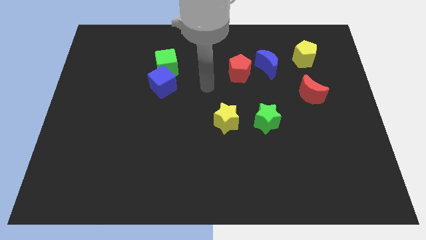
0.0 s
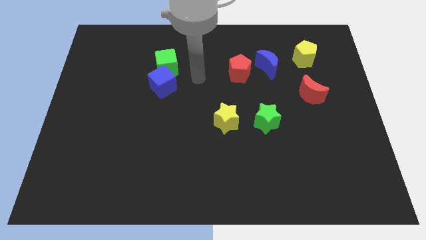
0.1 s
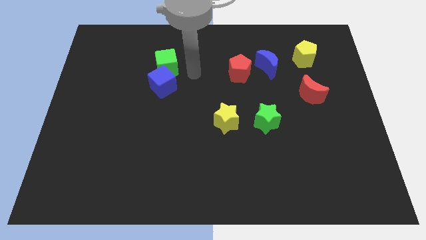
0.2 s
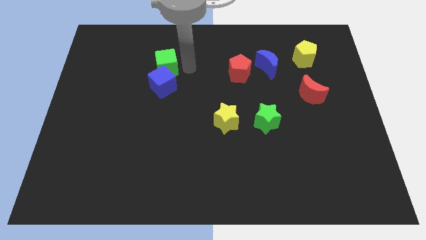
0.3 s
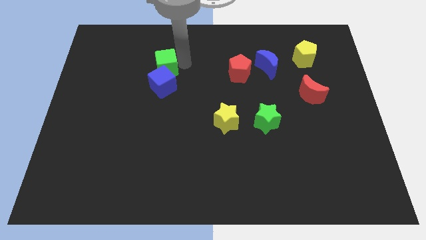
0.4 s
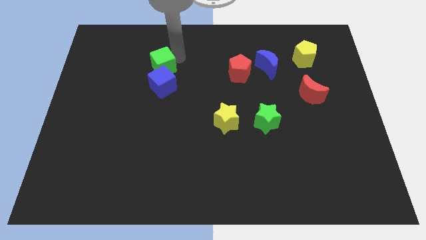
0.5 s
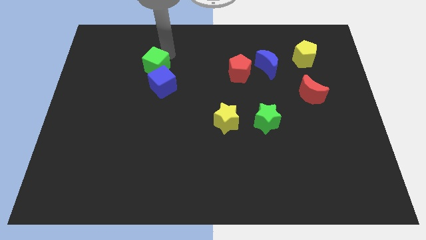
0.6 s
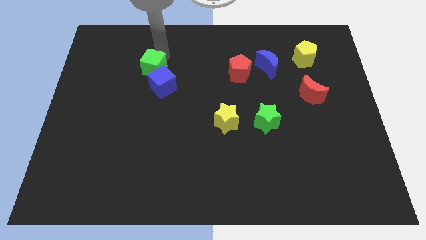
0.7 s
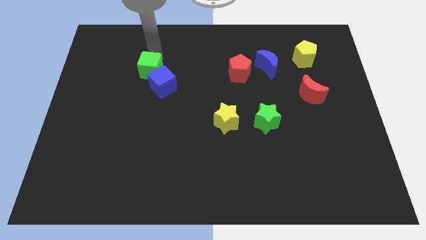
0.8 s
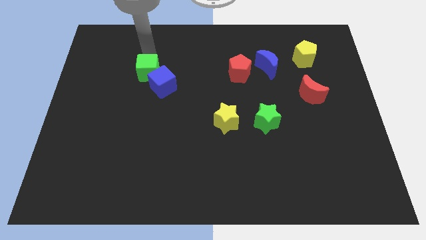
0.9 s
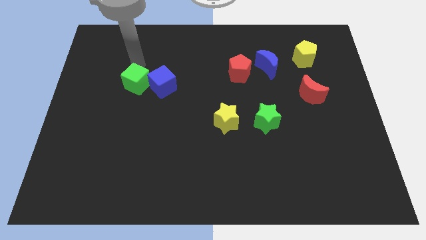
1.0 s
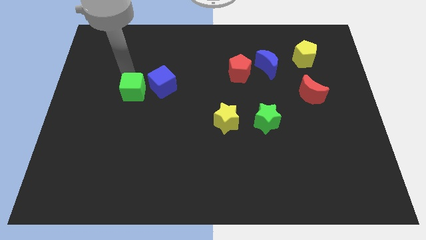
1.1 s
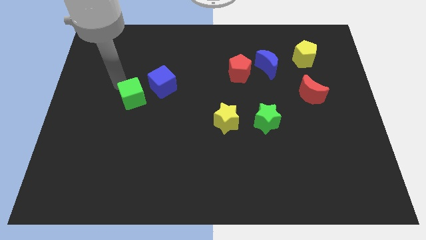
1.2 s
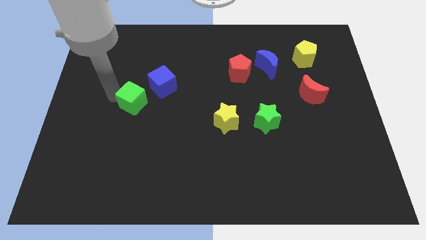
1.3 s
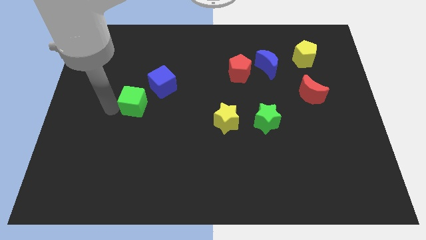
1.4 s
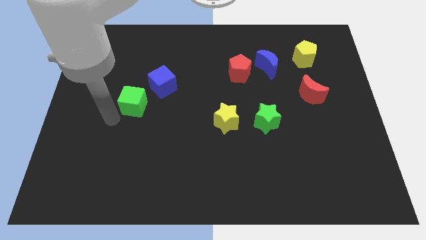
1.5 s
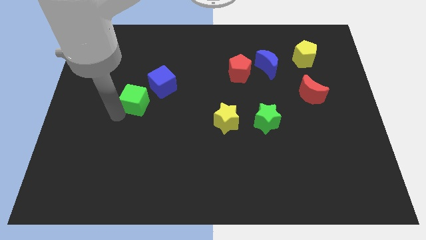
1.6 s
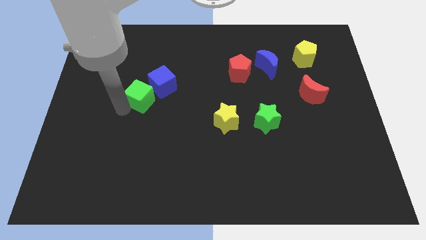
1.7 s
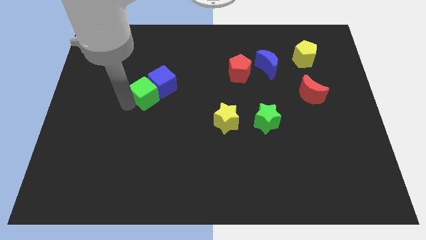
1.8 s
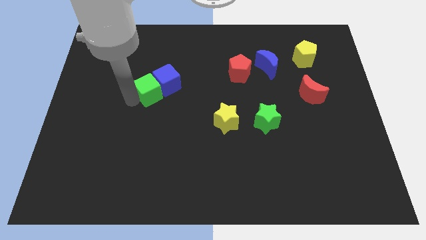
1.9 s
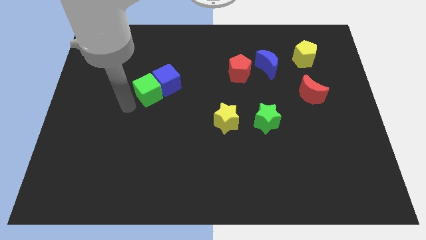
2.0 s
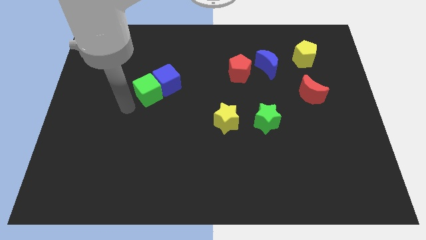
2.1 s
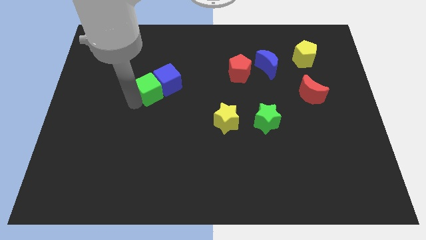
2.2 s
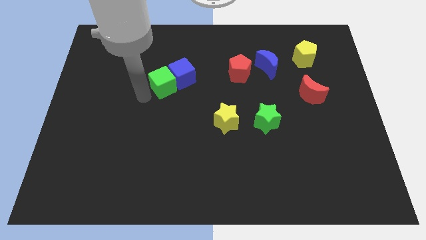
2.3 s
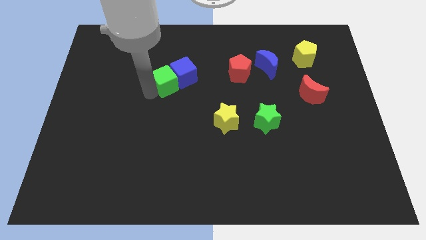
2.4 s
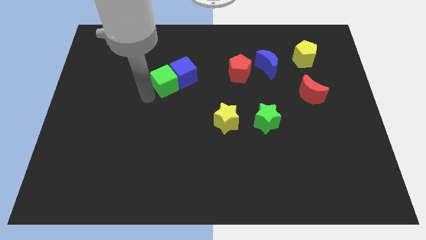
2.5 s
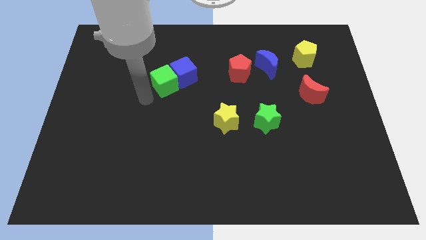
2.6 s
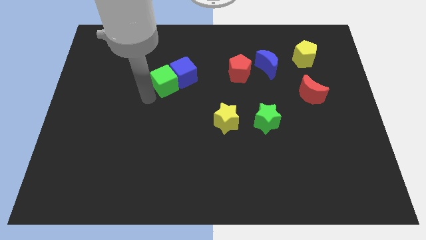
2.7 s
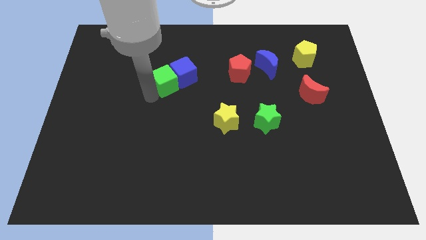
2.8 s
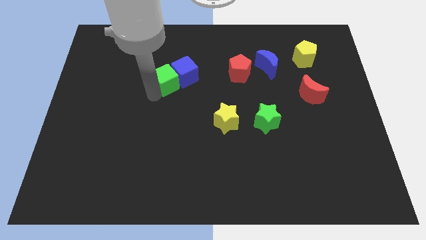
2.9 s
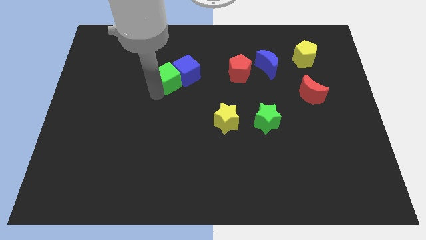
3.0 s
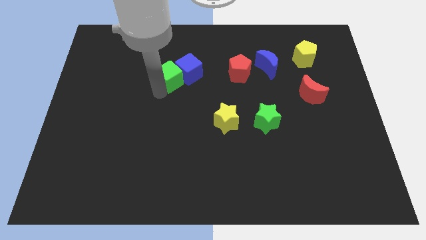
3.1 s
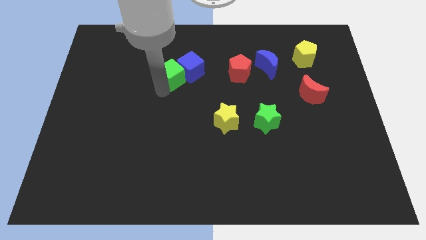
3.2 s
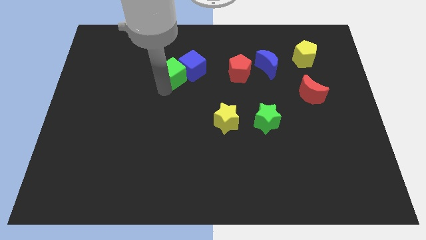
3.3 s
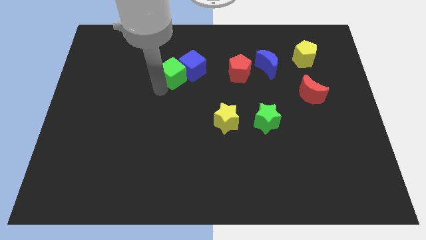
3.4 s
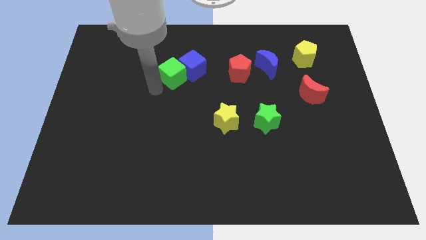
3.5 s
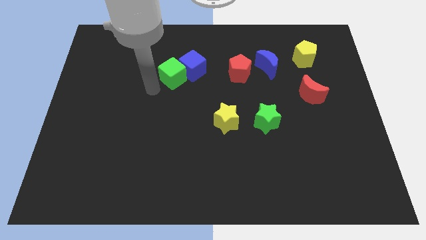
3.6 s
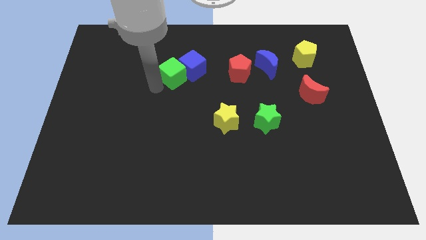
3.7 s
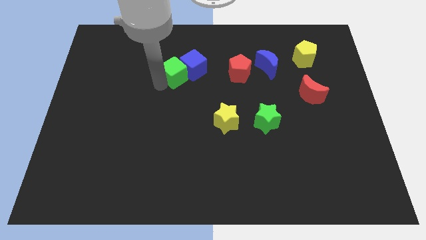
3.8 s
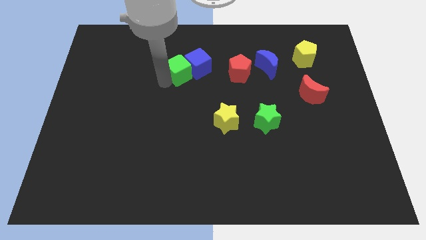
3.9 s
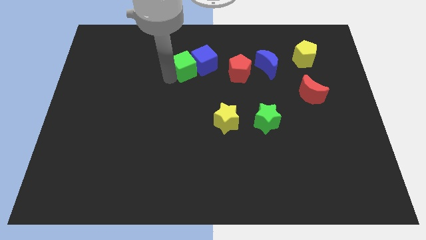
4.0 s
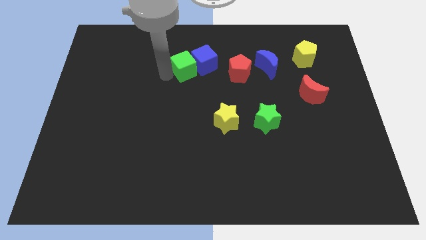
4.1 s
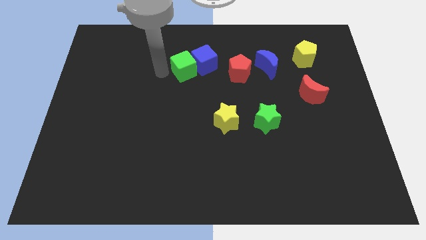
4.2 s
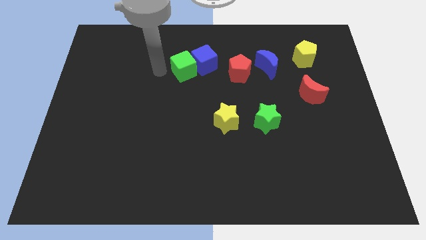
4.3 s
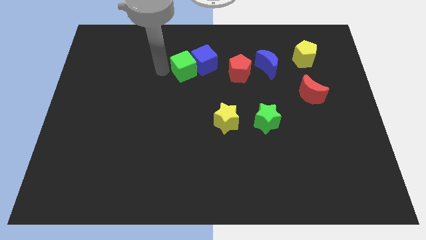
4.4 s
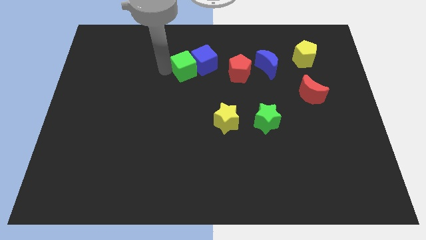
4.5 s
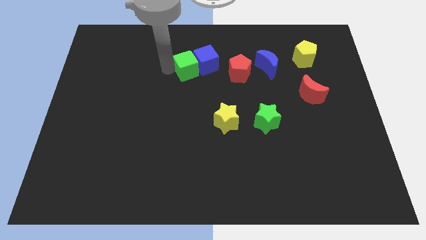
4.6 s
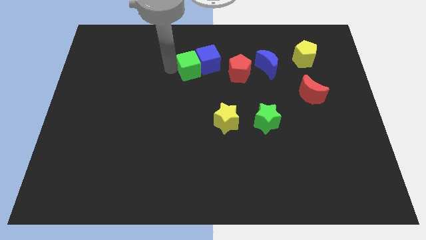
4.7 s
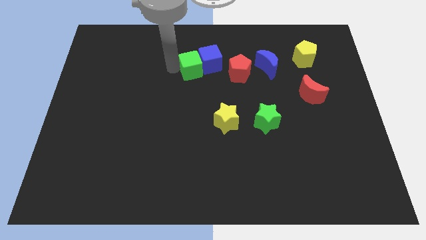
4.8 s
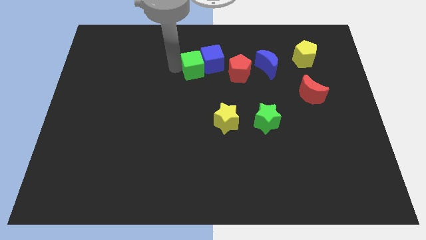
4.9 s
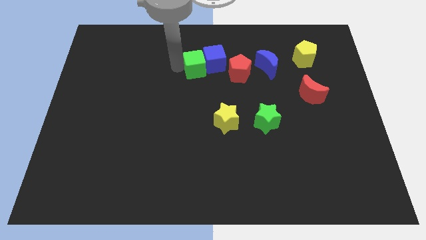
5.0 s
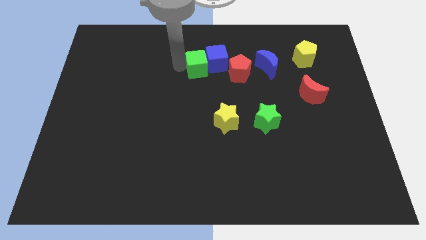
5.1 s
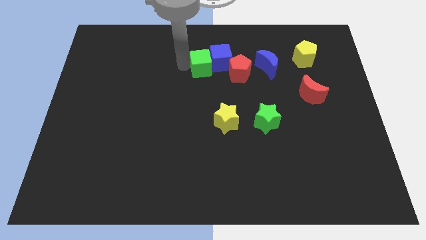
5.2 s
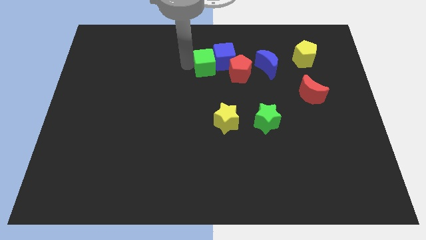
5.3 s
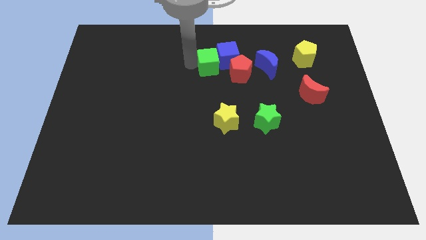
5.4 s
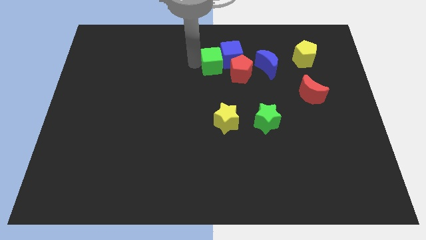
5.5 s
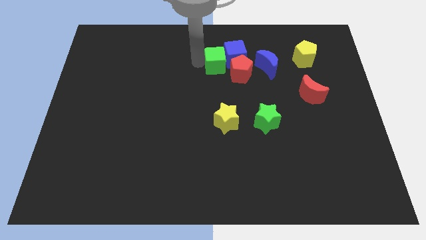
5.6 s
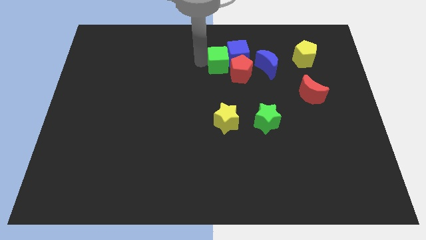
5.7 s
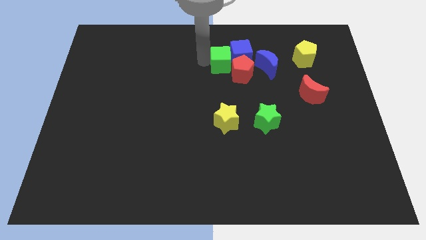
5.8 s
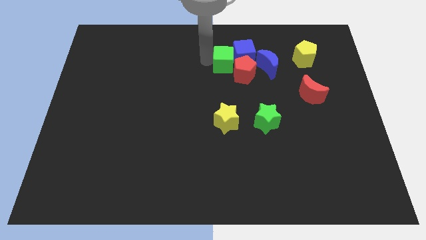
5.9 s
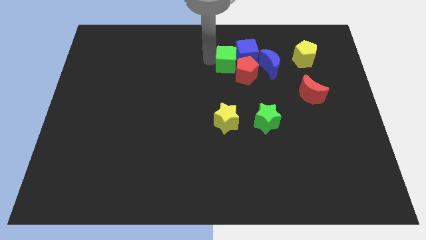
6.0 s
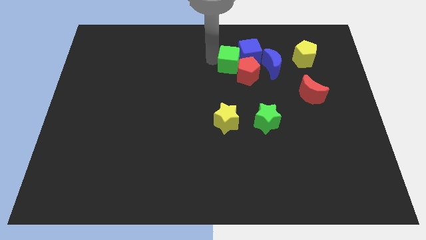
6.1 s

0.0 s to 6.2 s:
slide the green cube to the red pentagon

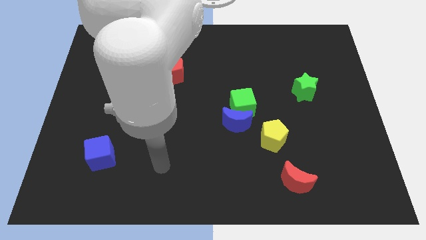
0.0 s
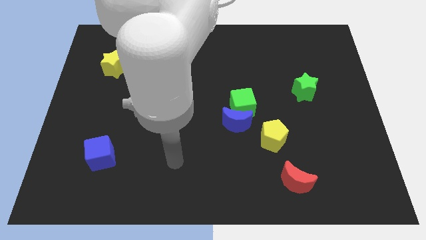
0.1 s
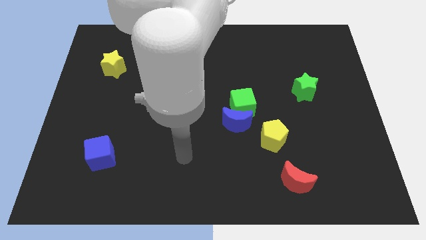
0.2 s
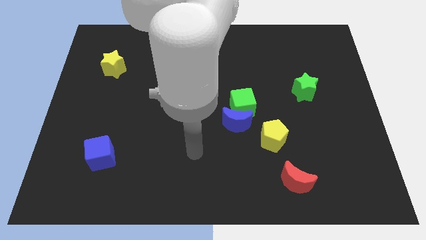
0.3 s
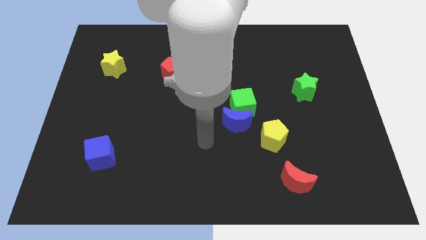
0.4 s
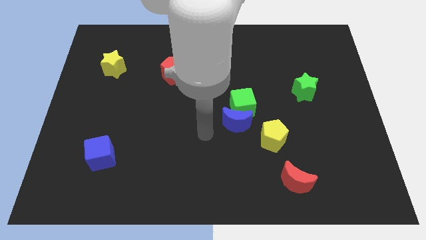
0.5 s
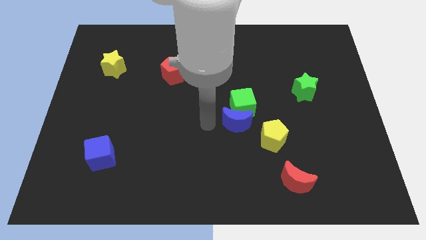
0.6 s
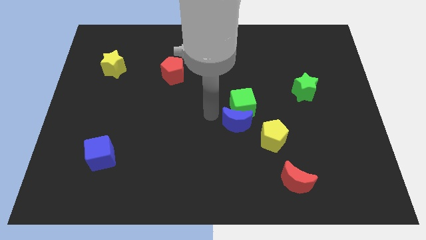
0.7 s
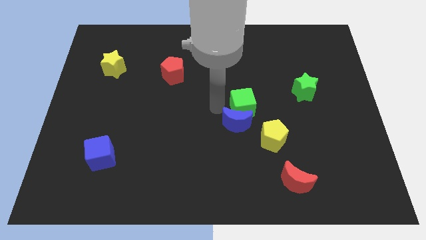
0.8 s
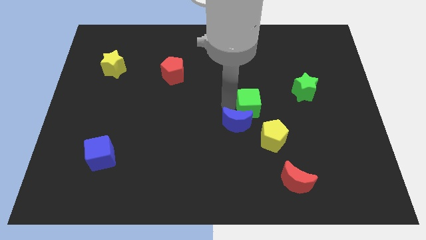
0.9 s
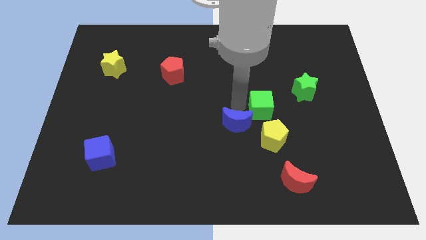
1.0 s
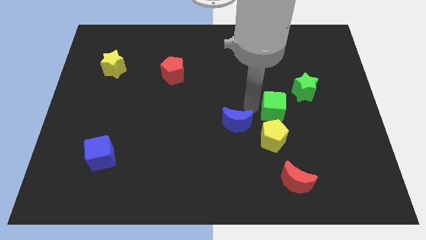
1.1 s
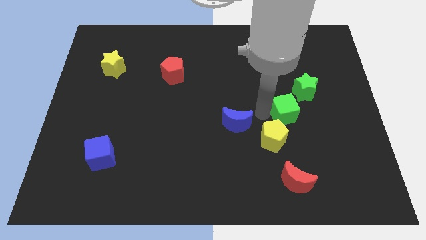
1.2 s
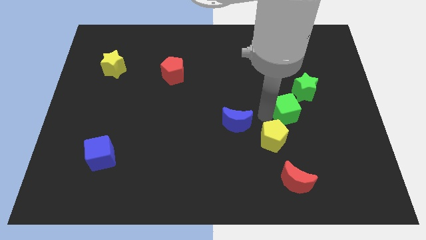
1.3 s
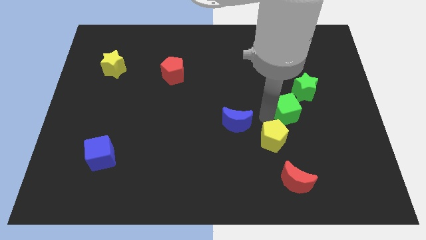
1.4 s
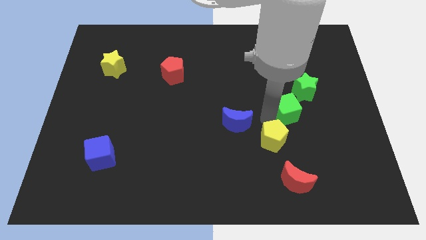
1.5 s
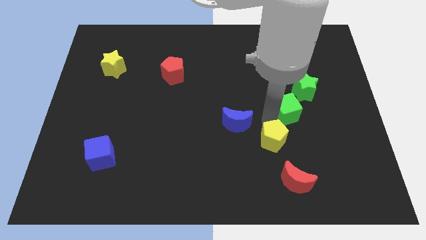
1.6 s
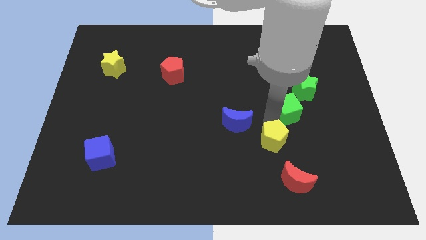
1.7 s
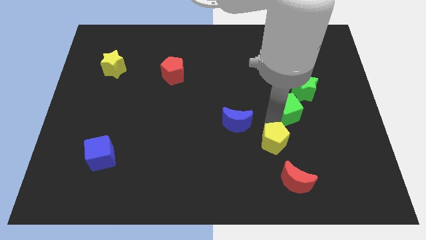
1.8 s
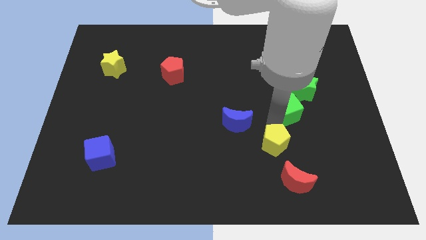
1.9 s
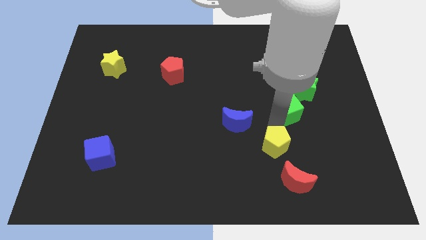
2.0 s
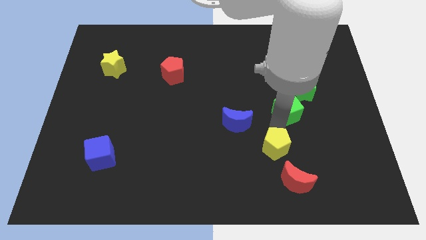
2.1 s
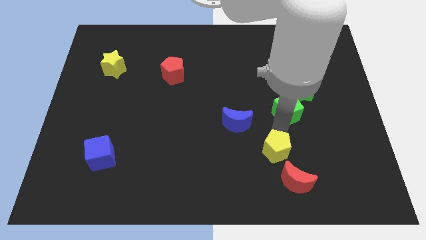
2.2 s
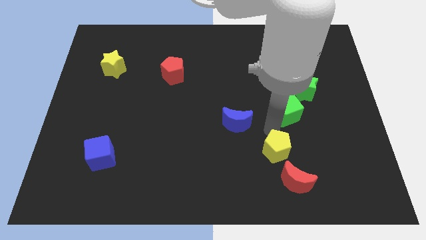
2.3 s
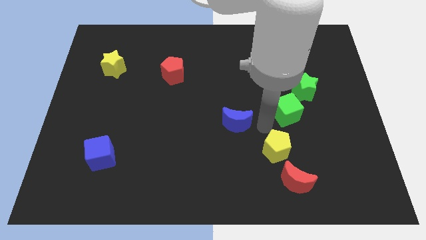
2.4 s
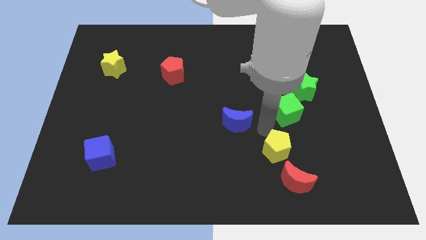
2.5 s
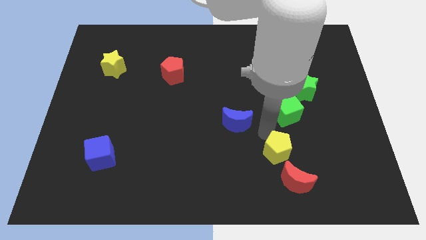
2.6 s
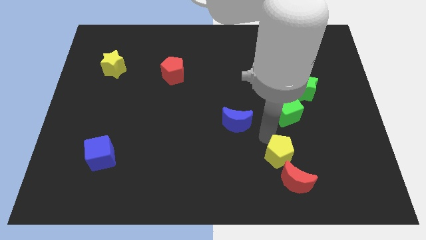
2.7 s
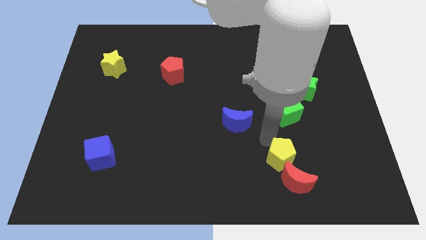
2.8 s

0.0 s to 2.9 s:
move the yellow pentagon towards the red moon
